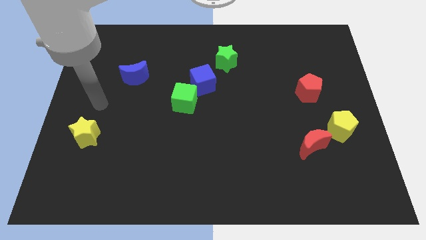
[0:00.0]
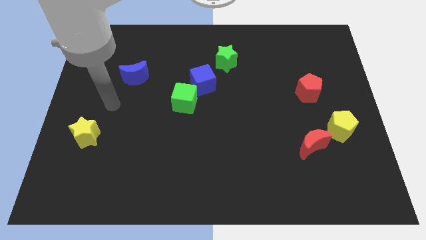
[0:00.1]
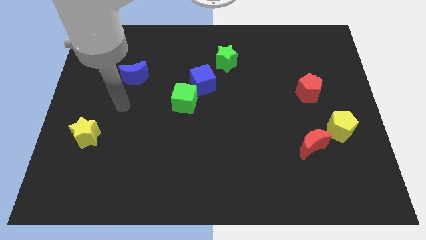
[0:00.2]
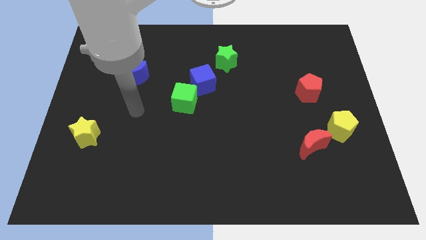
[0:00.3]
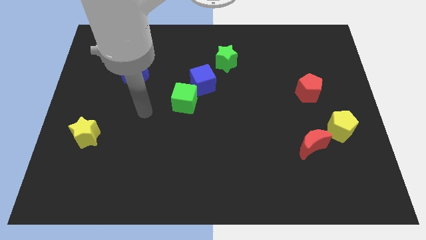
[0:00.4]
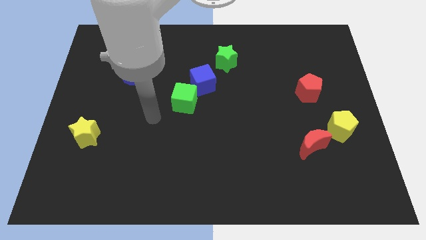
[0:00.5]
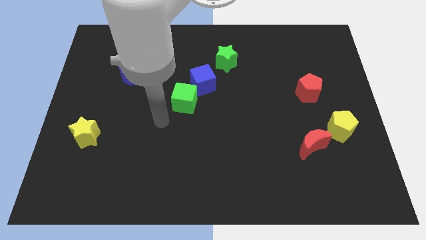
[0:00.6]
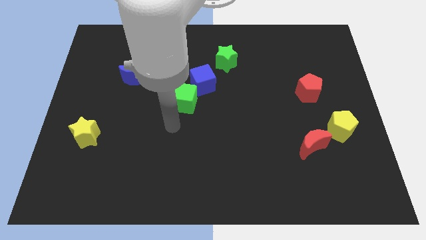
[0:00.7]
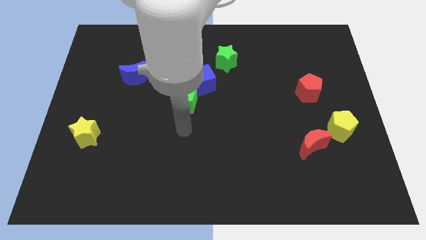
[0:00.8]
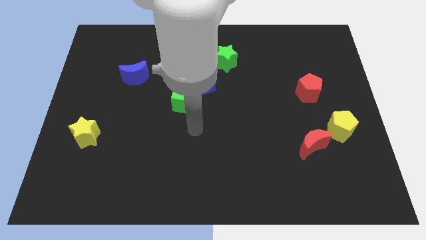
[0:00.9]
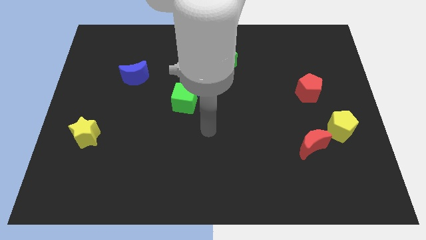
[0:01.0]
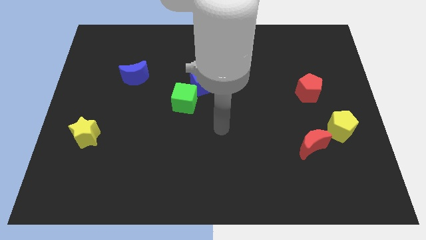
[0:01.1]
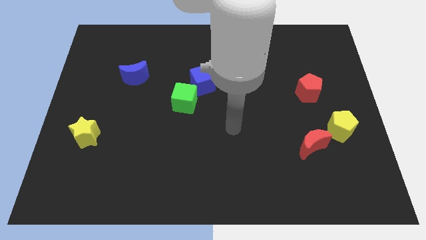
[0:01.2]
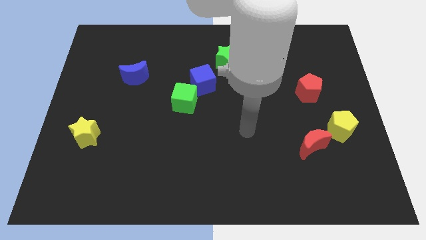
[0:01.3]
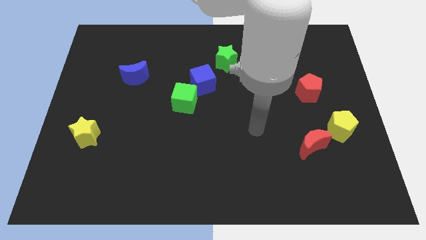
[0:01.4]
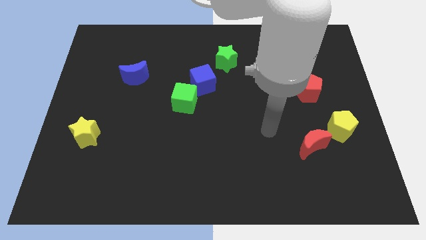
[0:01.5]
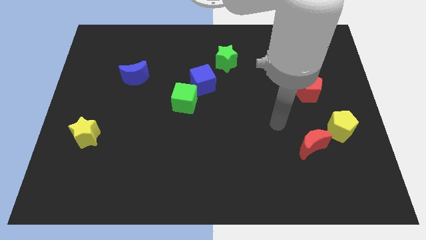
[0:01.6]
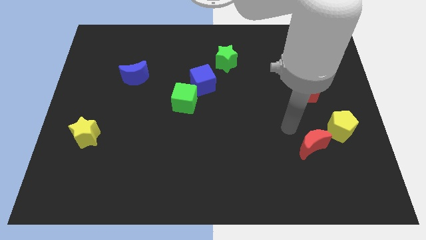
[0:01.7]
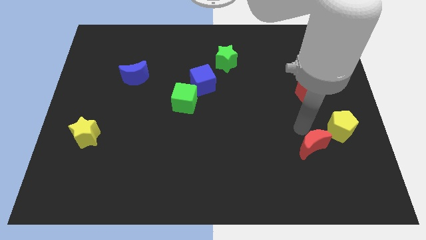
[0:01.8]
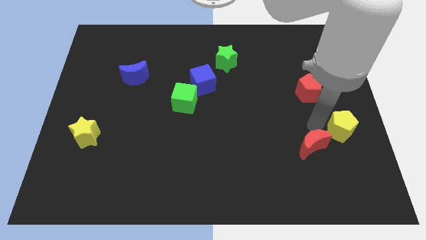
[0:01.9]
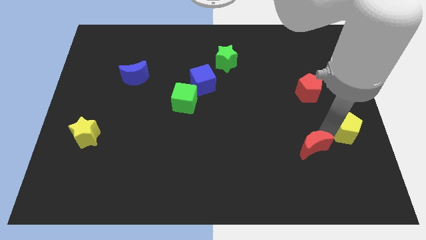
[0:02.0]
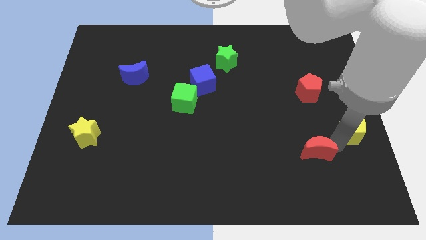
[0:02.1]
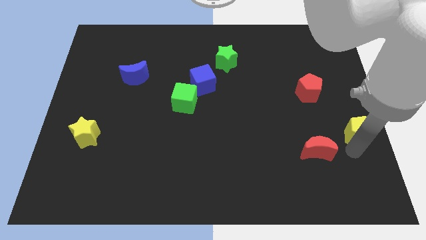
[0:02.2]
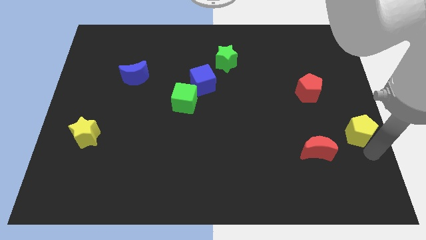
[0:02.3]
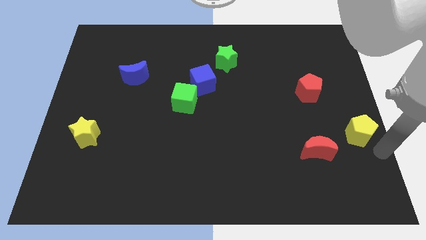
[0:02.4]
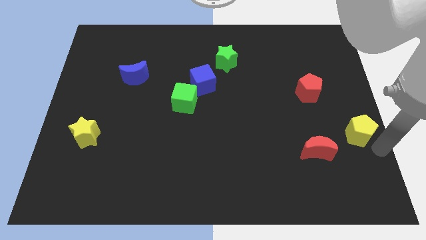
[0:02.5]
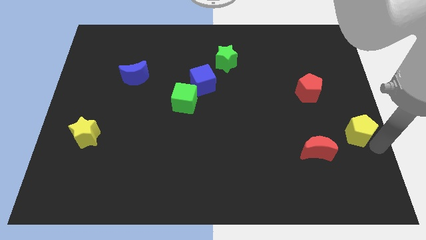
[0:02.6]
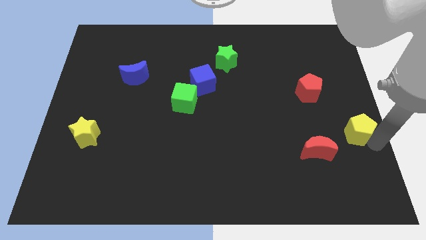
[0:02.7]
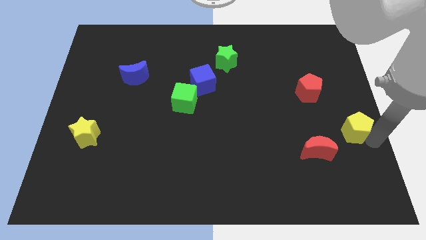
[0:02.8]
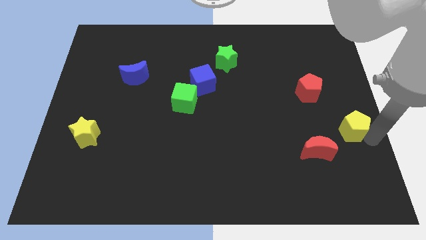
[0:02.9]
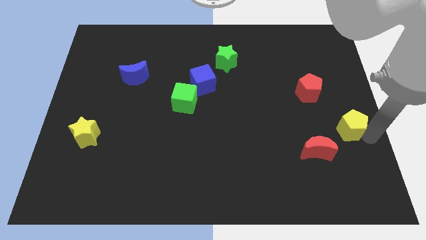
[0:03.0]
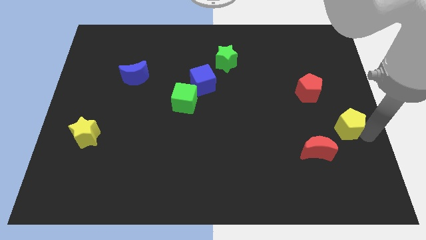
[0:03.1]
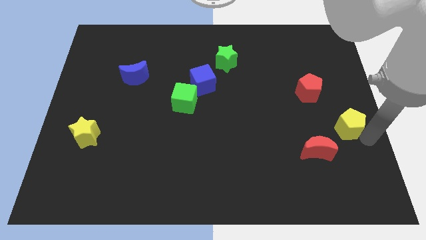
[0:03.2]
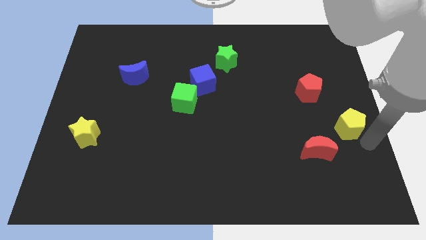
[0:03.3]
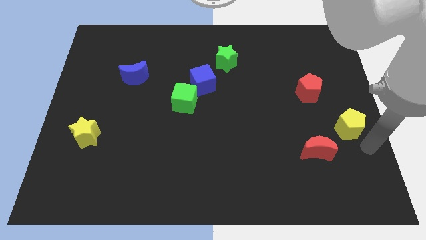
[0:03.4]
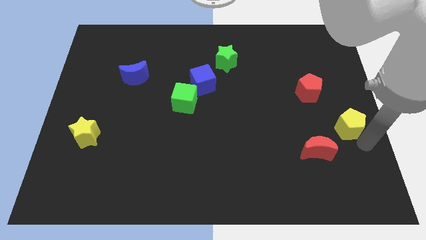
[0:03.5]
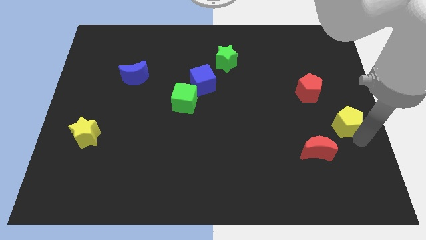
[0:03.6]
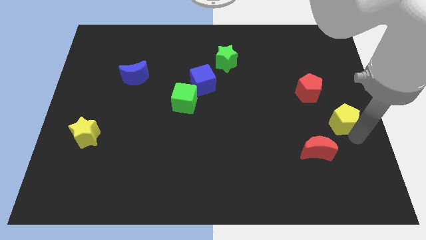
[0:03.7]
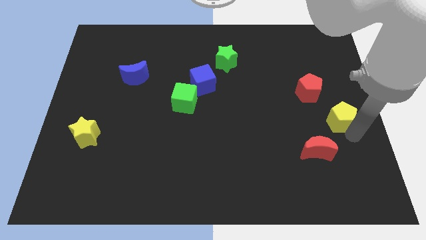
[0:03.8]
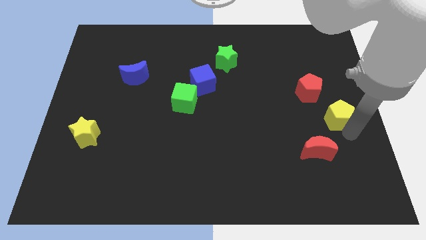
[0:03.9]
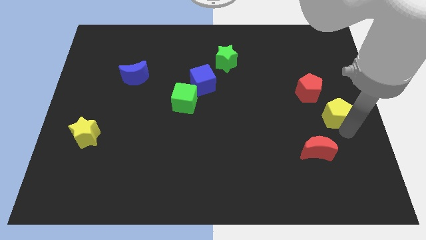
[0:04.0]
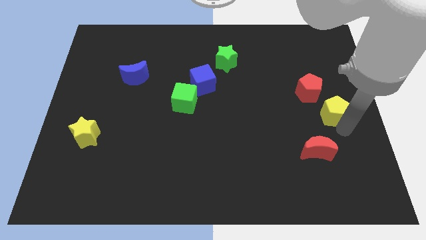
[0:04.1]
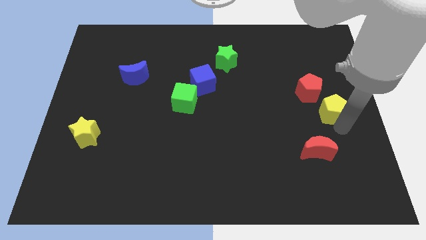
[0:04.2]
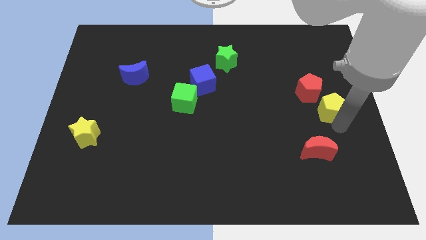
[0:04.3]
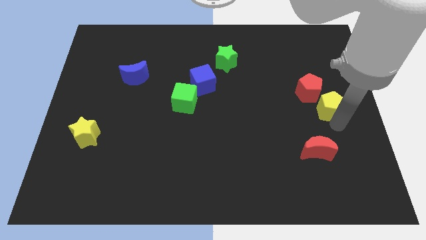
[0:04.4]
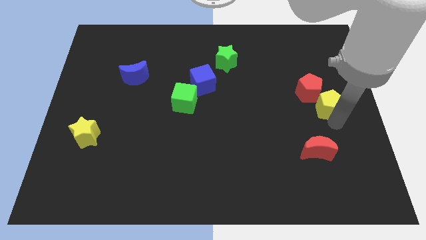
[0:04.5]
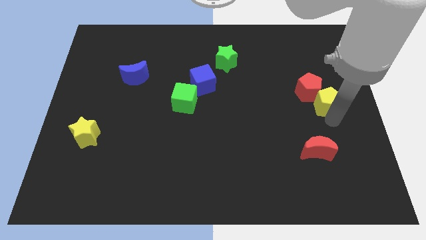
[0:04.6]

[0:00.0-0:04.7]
slightly slide the yellow pentagon up

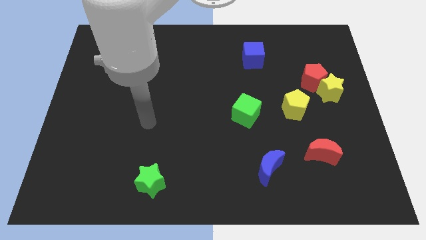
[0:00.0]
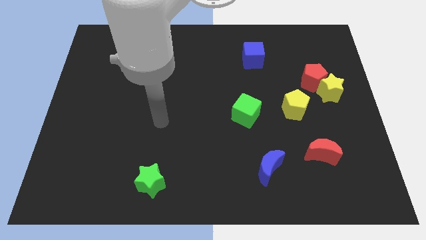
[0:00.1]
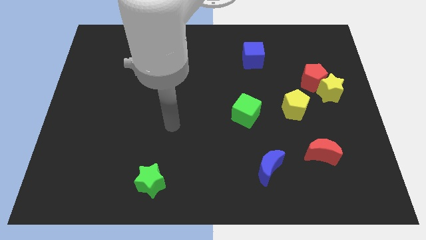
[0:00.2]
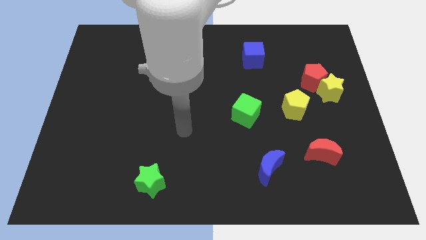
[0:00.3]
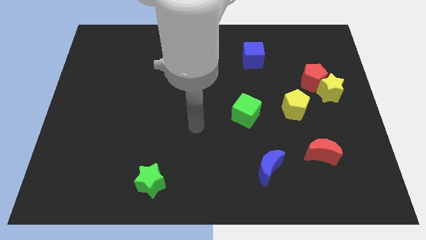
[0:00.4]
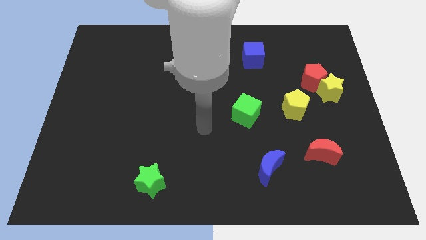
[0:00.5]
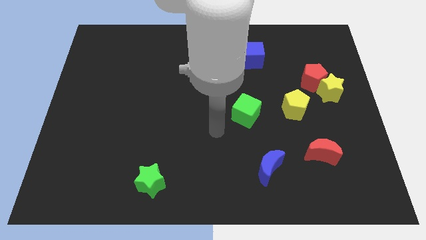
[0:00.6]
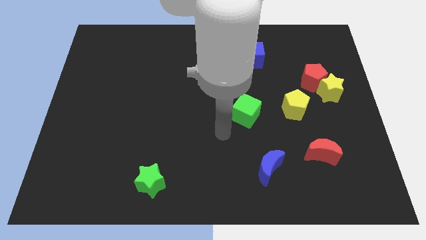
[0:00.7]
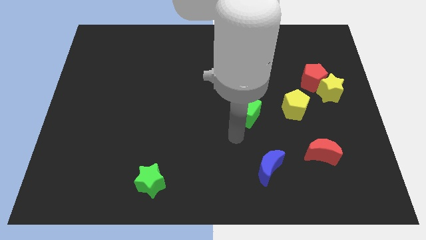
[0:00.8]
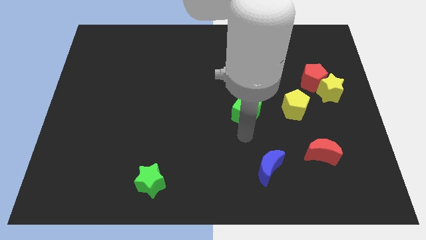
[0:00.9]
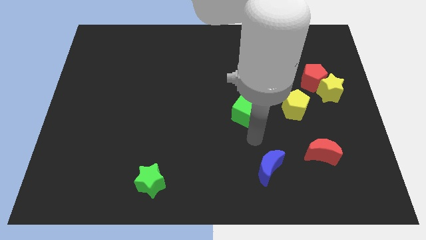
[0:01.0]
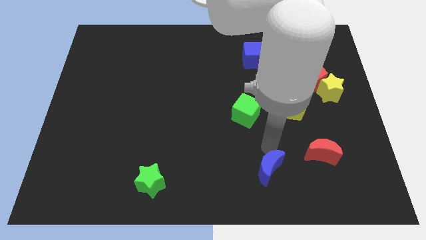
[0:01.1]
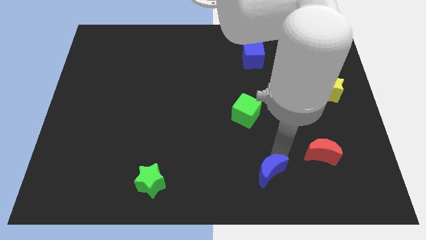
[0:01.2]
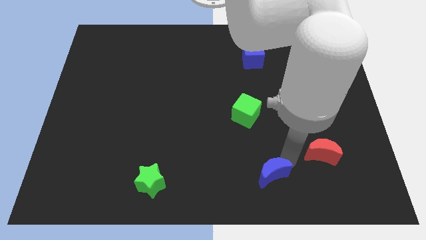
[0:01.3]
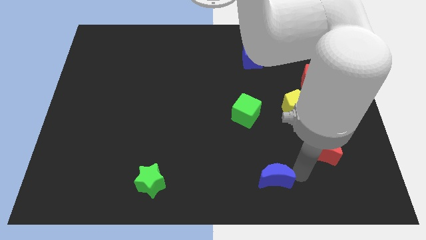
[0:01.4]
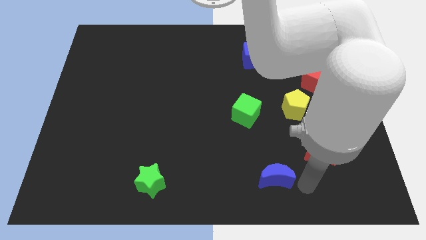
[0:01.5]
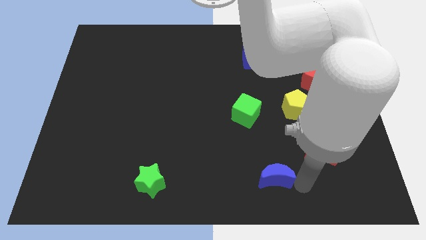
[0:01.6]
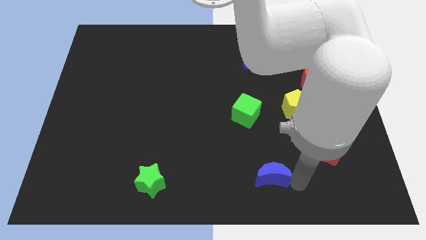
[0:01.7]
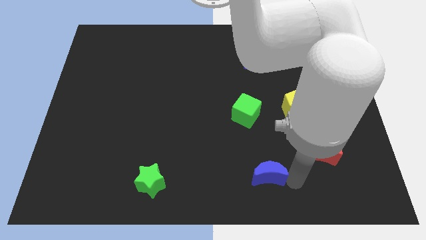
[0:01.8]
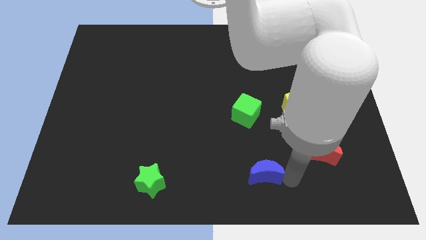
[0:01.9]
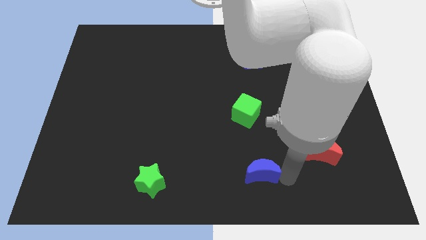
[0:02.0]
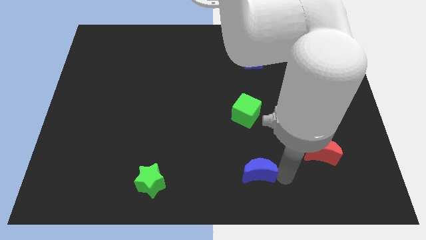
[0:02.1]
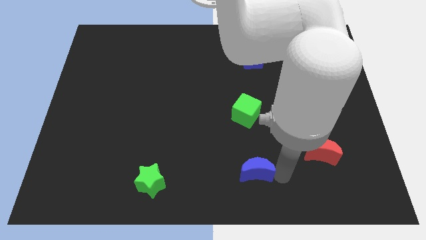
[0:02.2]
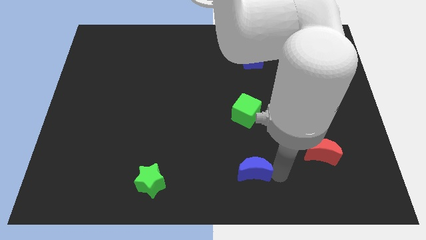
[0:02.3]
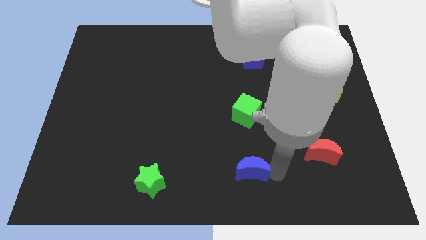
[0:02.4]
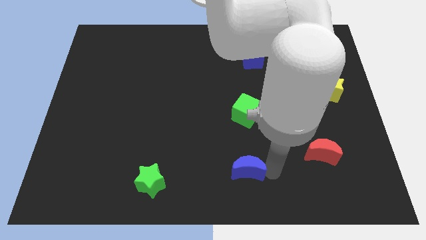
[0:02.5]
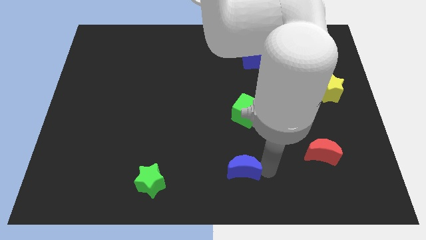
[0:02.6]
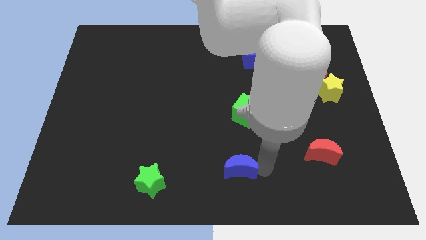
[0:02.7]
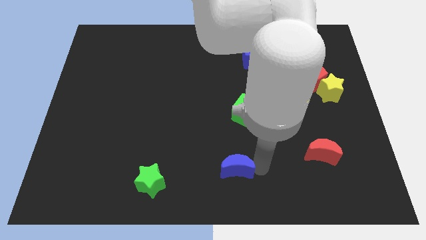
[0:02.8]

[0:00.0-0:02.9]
slightly push the blue moon to the left
